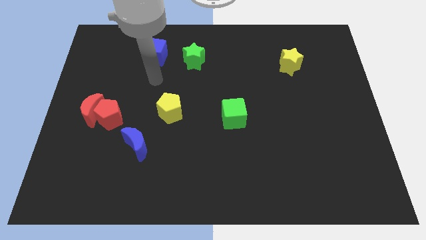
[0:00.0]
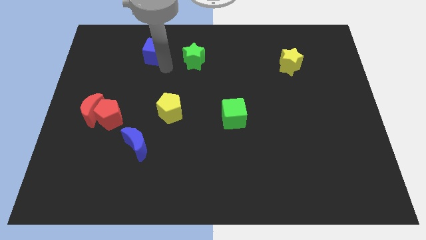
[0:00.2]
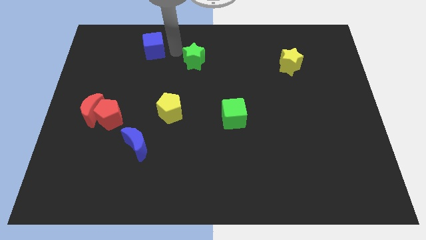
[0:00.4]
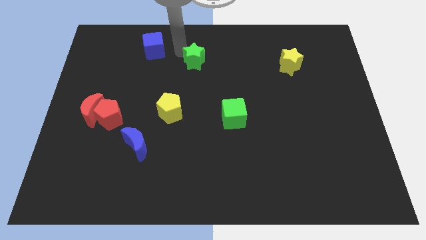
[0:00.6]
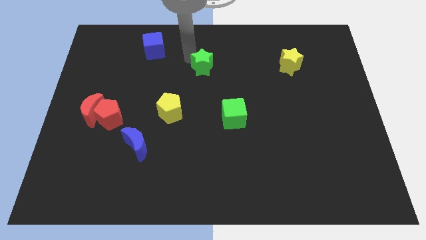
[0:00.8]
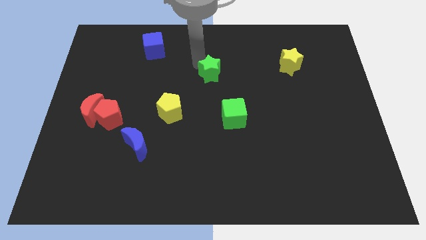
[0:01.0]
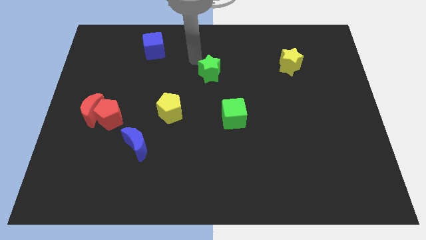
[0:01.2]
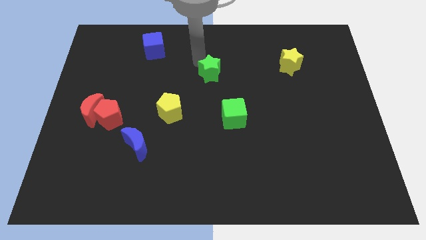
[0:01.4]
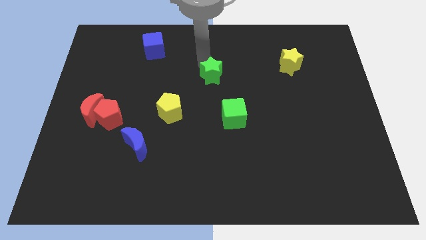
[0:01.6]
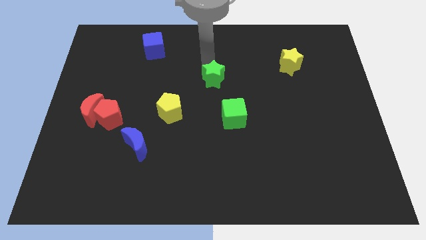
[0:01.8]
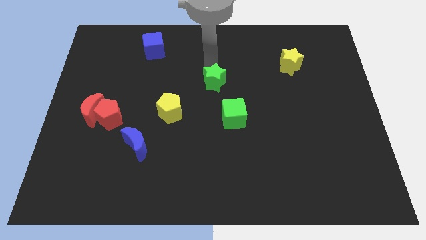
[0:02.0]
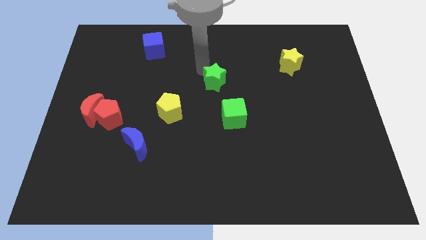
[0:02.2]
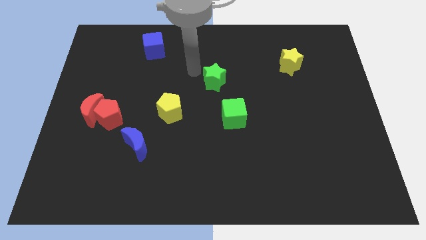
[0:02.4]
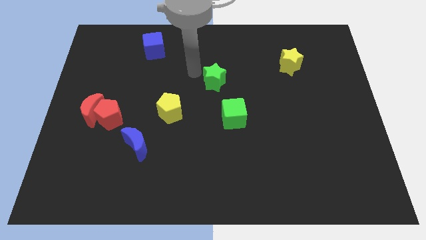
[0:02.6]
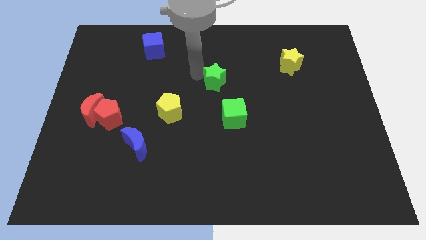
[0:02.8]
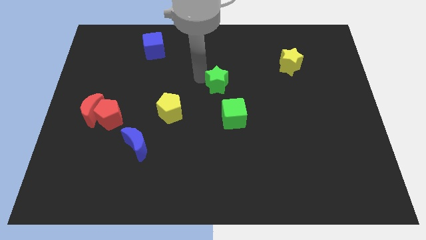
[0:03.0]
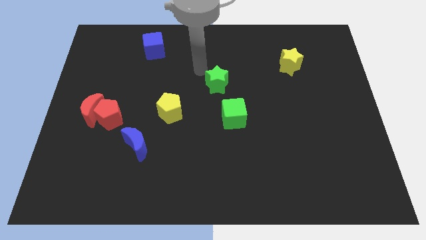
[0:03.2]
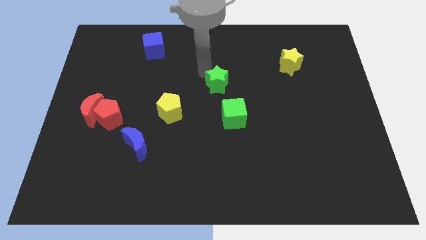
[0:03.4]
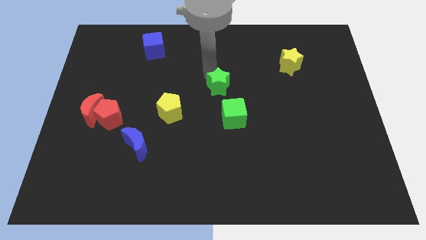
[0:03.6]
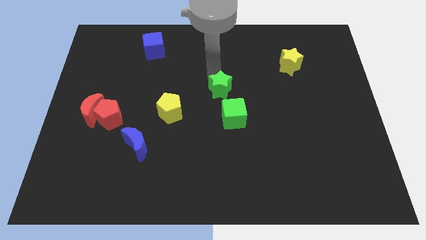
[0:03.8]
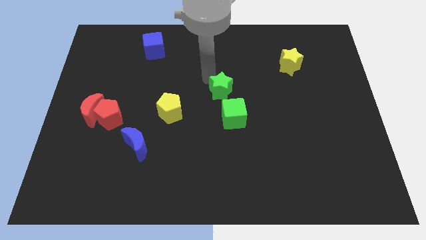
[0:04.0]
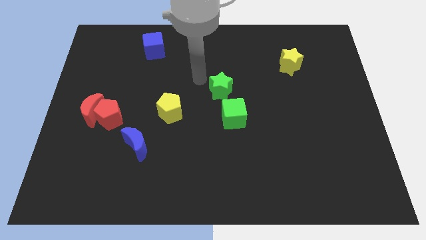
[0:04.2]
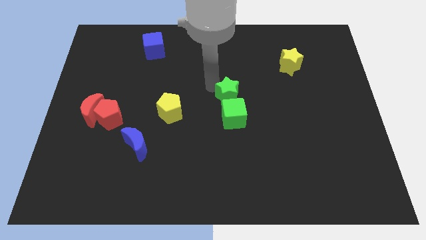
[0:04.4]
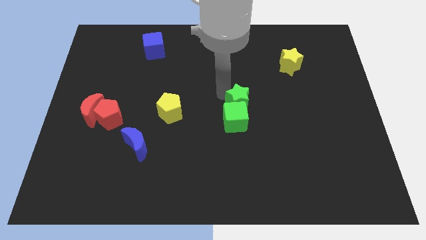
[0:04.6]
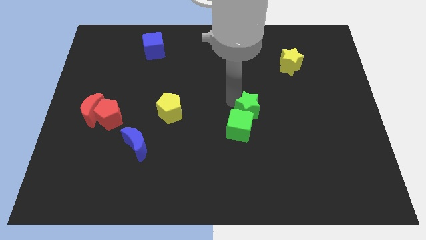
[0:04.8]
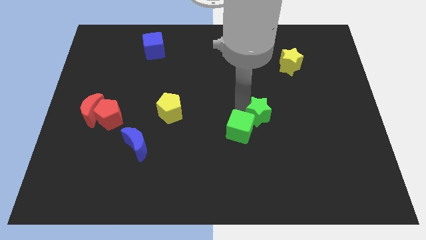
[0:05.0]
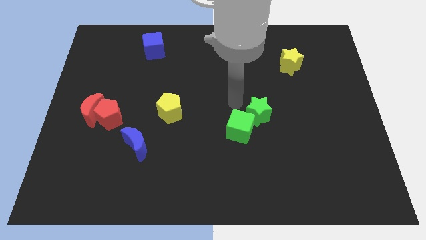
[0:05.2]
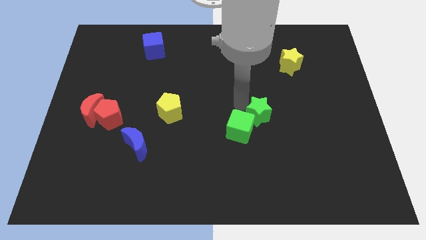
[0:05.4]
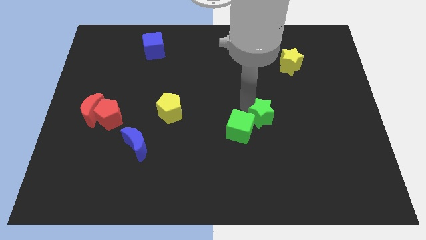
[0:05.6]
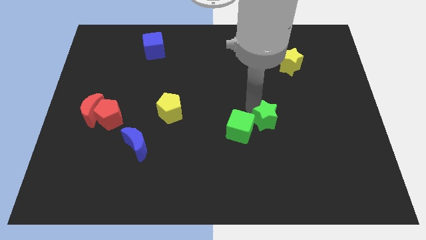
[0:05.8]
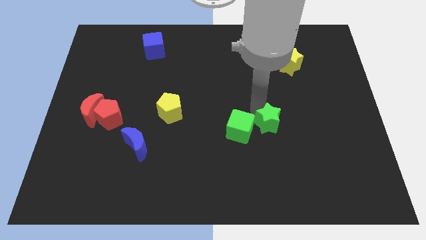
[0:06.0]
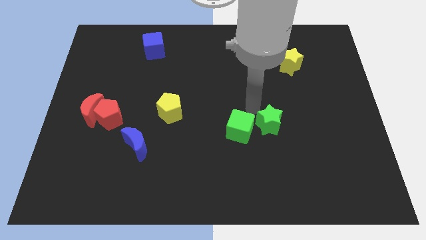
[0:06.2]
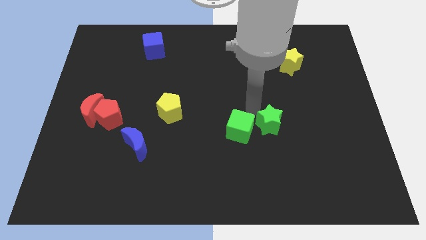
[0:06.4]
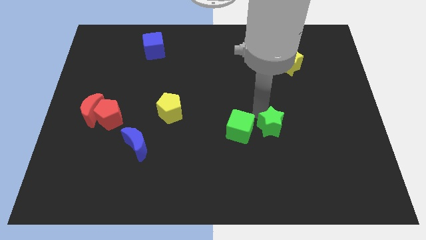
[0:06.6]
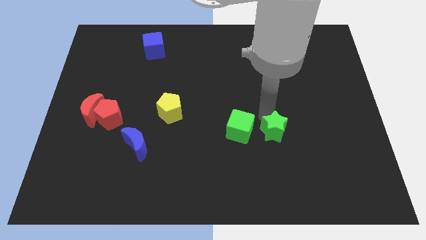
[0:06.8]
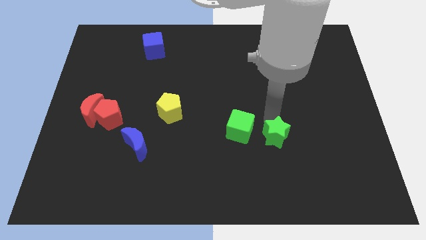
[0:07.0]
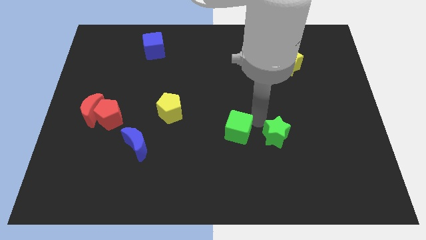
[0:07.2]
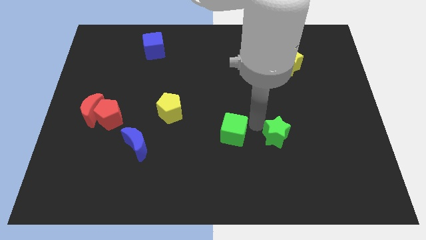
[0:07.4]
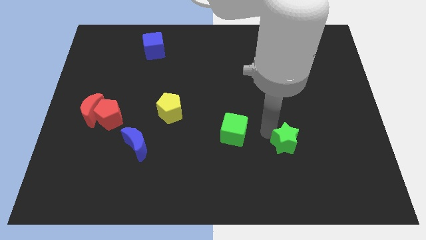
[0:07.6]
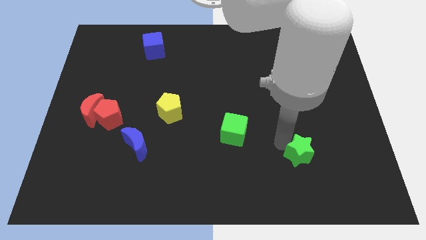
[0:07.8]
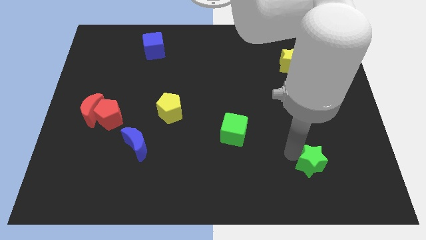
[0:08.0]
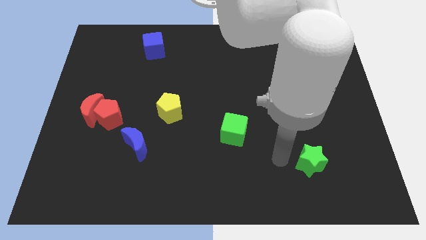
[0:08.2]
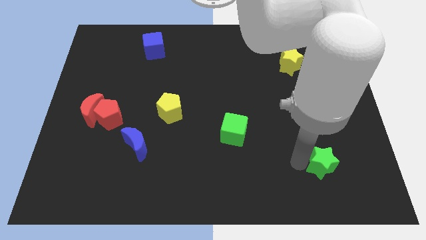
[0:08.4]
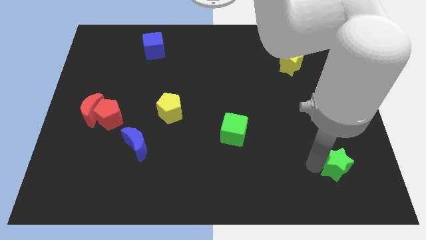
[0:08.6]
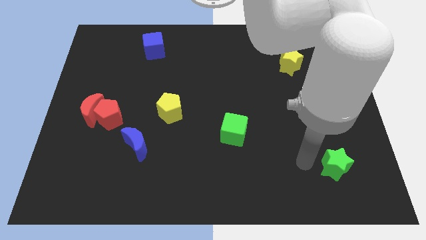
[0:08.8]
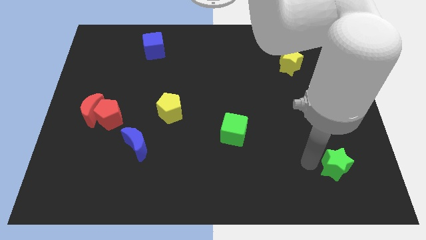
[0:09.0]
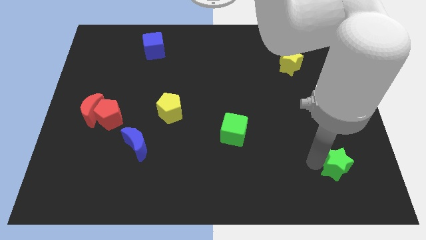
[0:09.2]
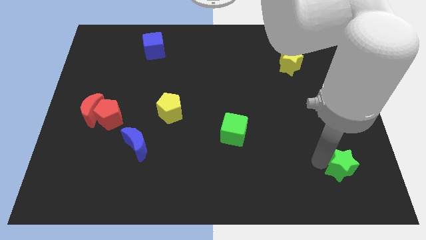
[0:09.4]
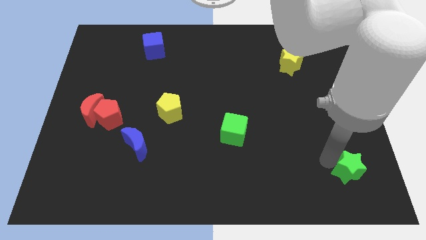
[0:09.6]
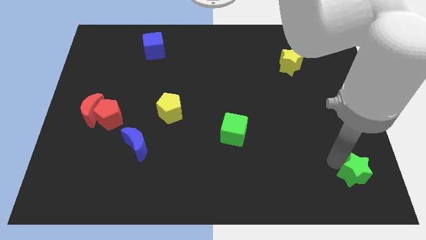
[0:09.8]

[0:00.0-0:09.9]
slide the green star to the bottom right corner

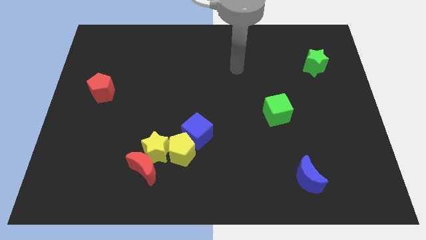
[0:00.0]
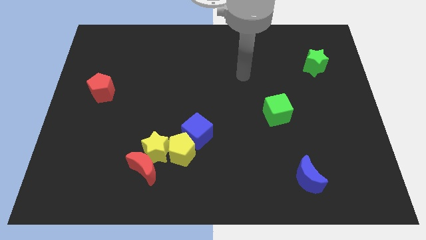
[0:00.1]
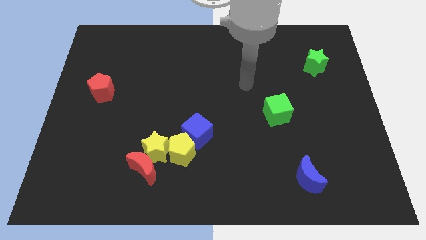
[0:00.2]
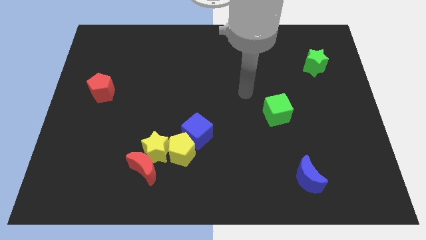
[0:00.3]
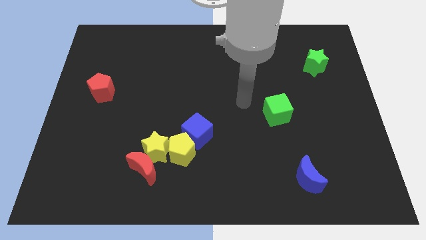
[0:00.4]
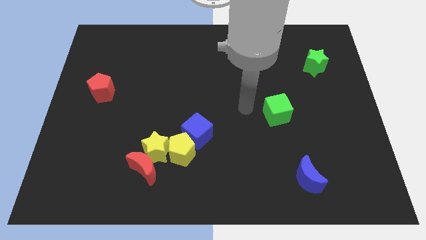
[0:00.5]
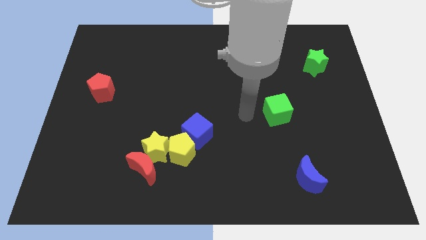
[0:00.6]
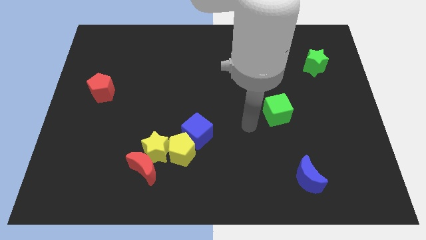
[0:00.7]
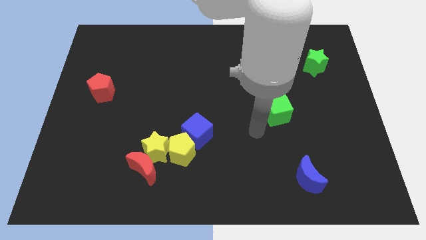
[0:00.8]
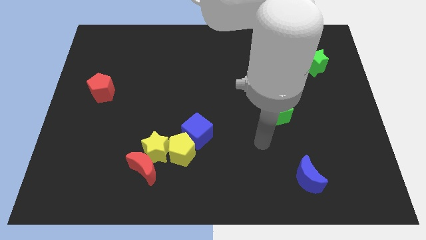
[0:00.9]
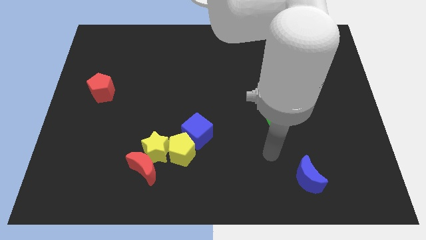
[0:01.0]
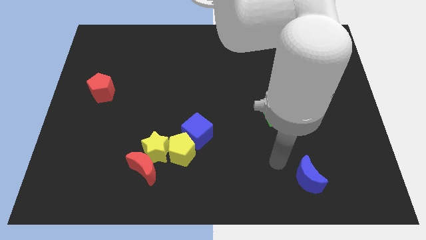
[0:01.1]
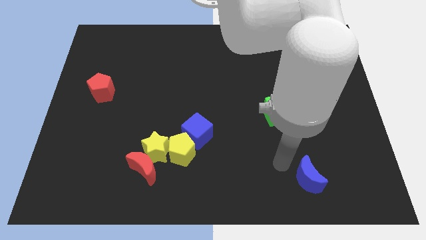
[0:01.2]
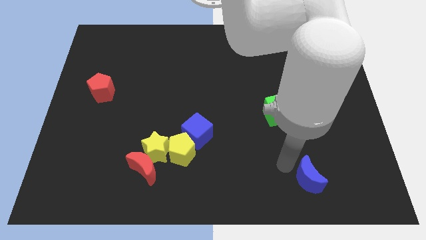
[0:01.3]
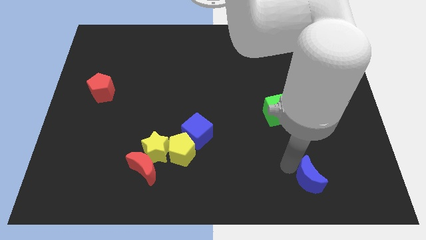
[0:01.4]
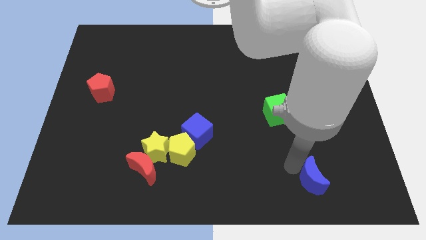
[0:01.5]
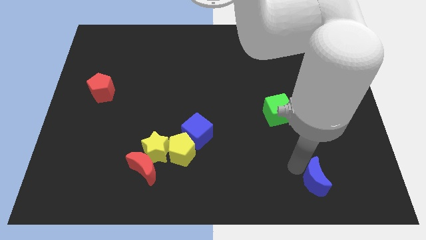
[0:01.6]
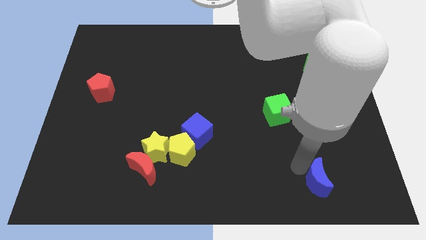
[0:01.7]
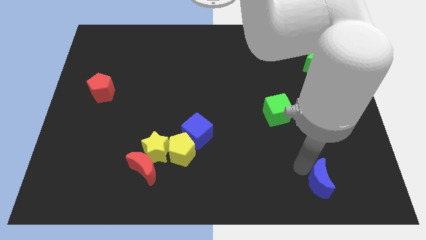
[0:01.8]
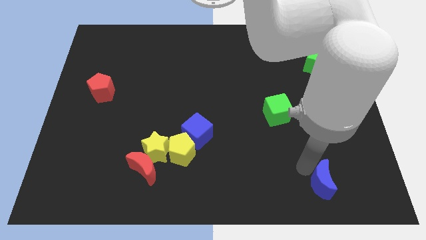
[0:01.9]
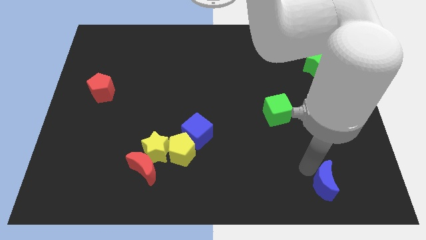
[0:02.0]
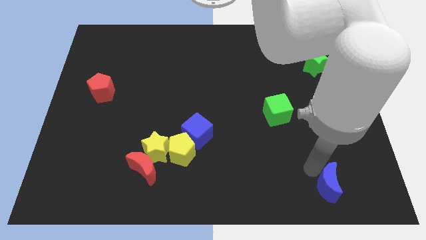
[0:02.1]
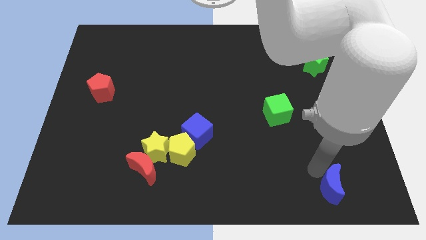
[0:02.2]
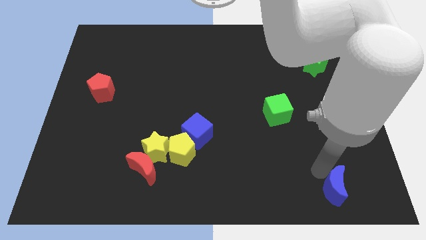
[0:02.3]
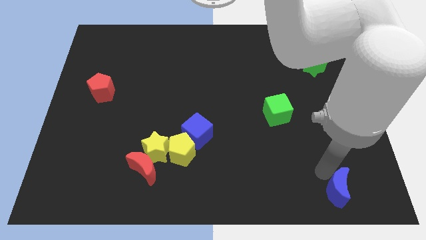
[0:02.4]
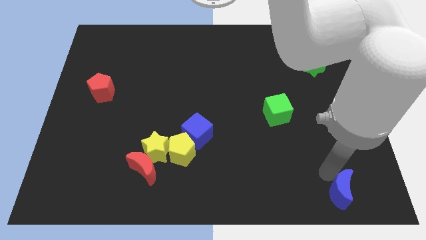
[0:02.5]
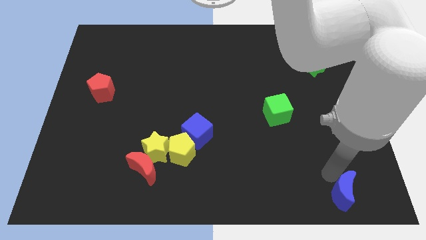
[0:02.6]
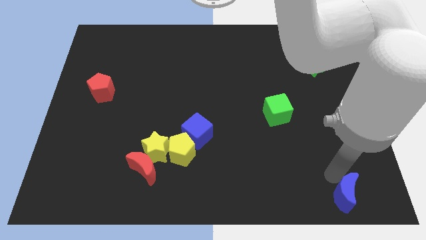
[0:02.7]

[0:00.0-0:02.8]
put the blue moon to the bottom right corner
